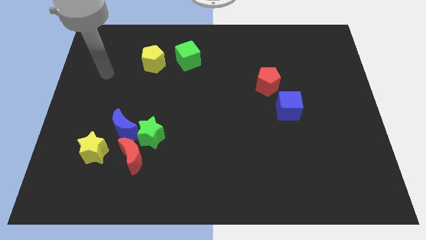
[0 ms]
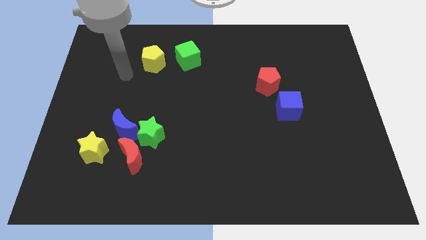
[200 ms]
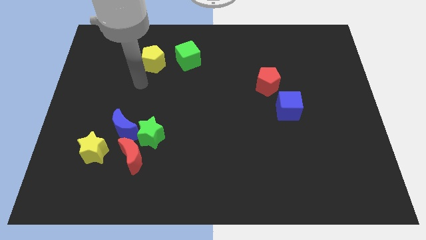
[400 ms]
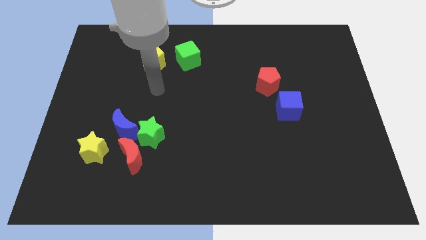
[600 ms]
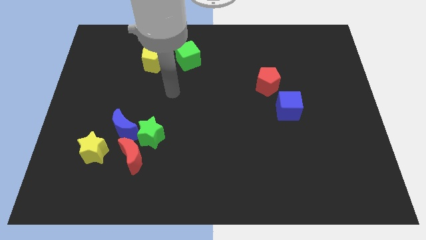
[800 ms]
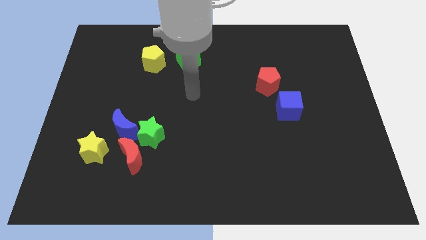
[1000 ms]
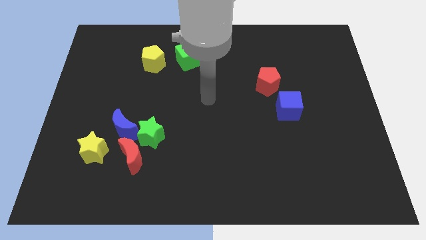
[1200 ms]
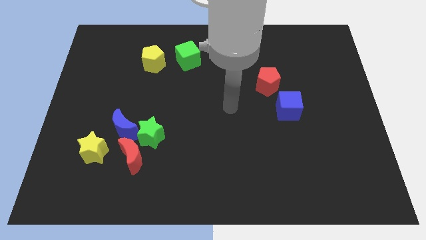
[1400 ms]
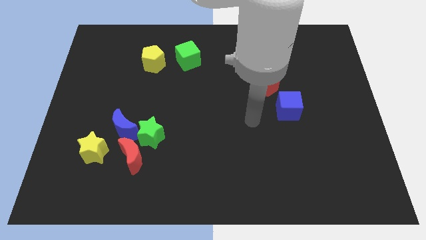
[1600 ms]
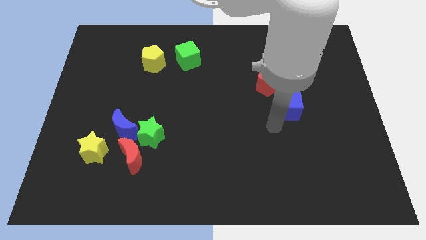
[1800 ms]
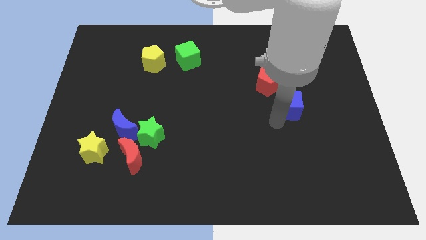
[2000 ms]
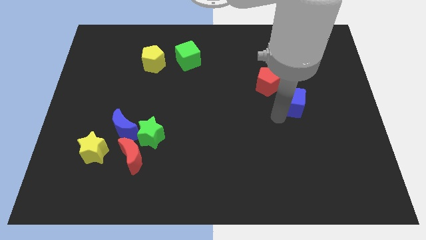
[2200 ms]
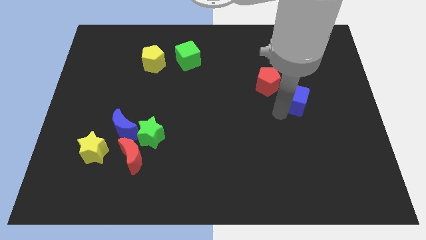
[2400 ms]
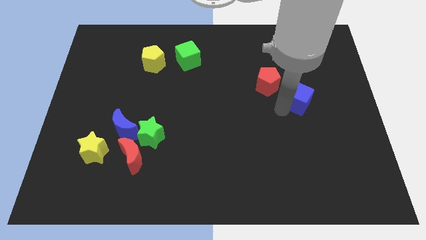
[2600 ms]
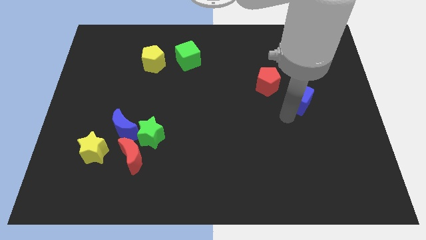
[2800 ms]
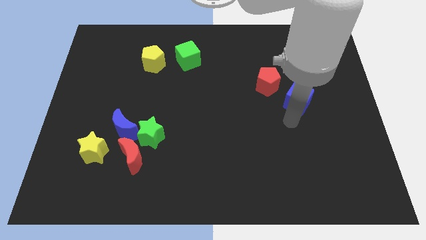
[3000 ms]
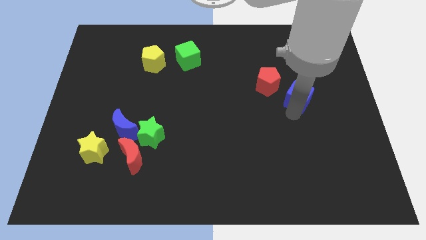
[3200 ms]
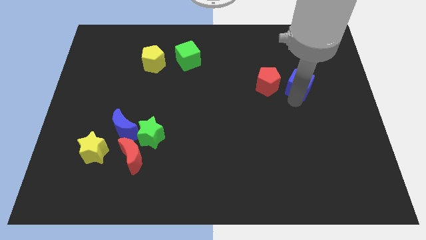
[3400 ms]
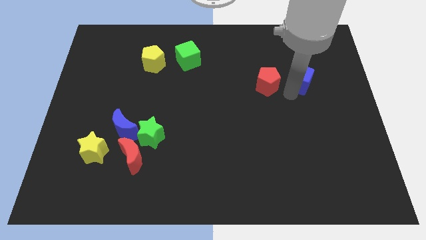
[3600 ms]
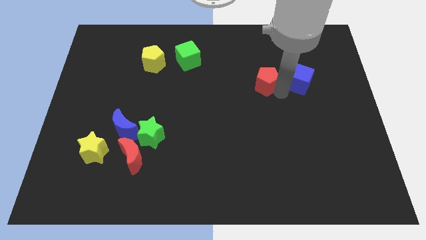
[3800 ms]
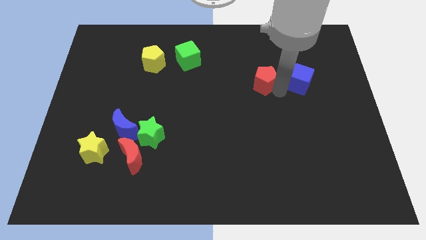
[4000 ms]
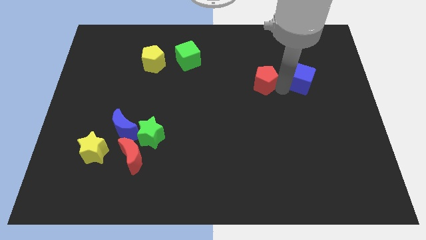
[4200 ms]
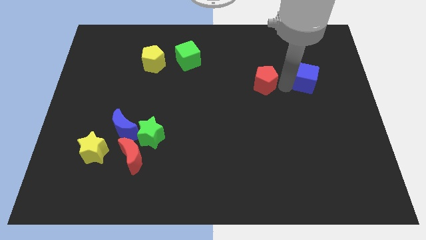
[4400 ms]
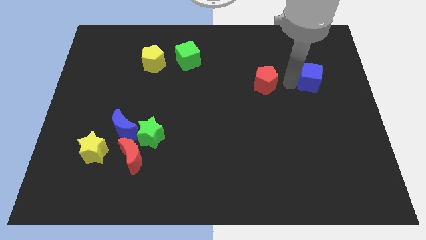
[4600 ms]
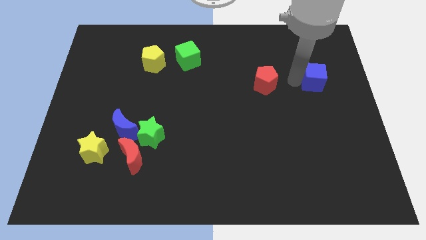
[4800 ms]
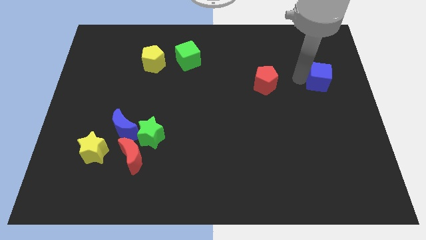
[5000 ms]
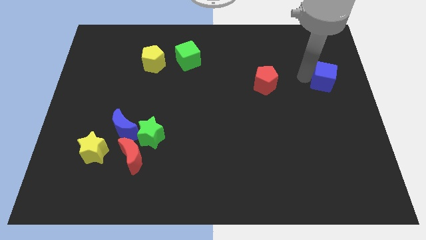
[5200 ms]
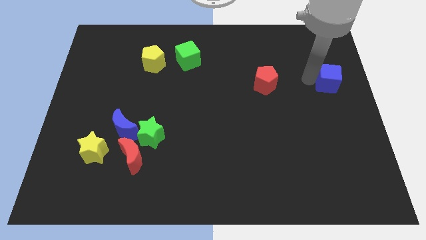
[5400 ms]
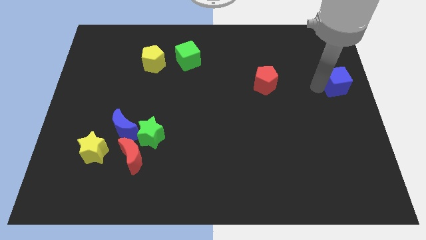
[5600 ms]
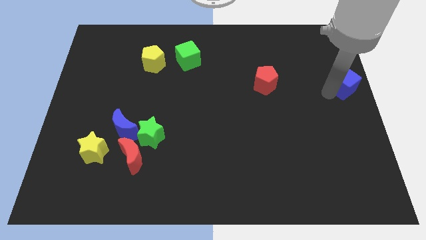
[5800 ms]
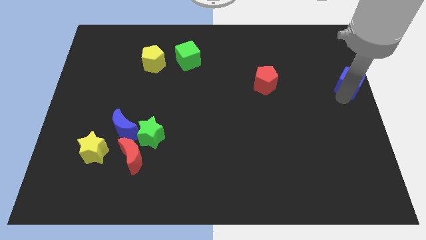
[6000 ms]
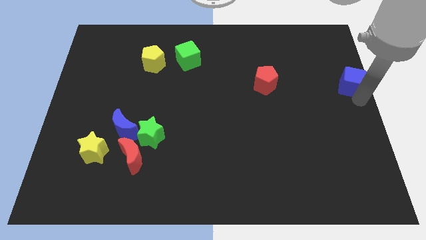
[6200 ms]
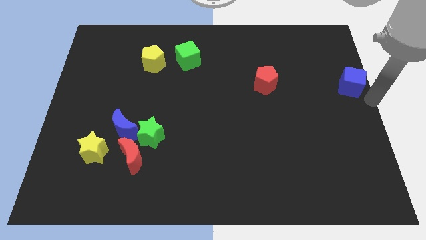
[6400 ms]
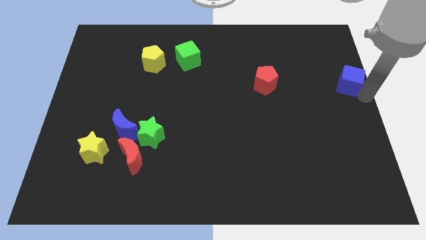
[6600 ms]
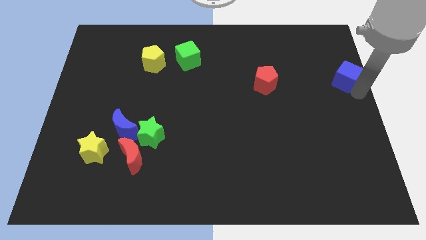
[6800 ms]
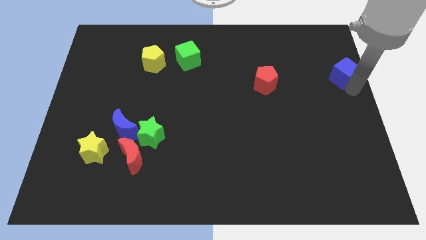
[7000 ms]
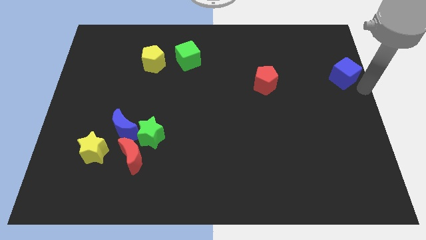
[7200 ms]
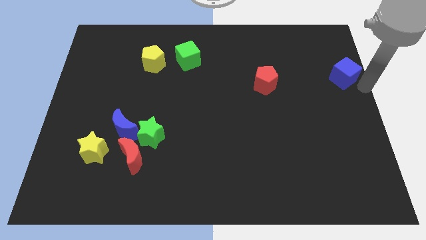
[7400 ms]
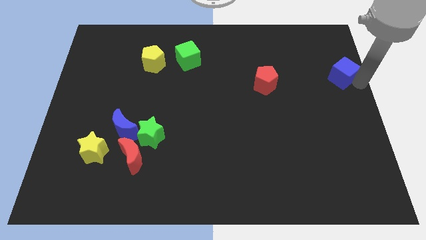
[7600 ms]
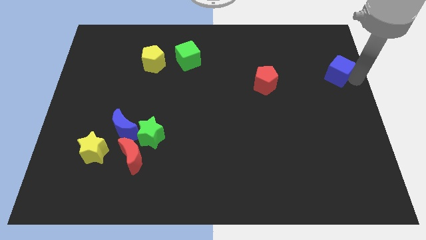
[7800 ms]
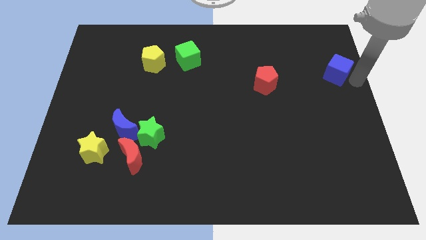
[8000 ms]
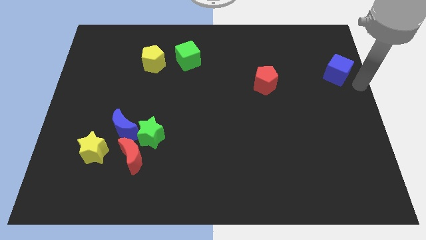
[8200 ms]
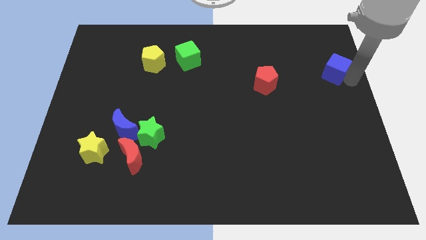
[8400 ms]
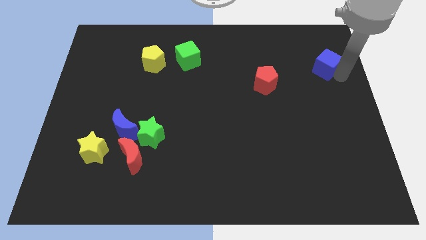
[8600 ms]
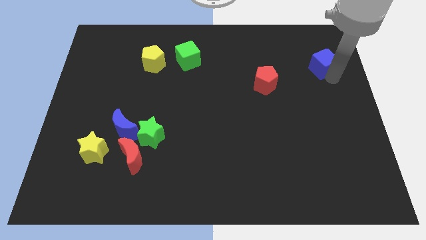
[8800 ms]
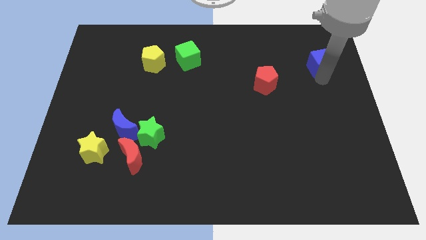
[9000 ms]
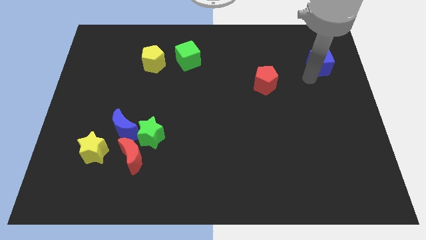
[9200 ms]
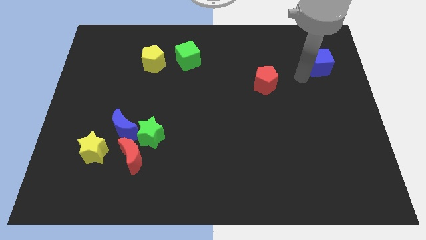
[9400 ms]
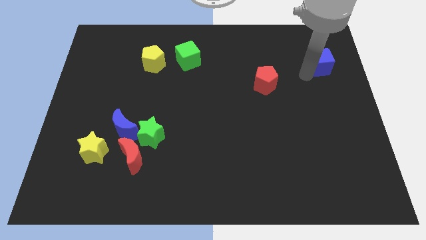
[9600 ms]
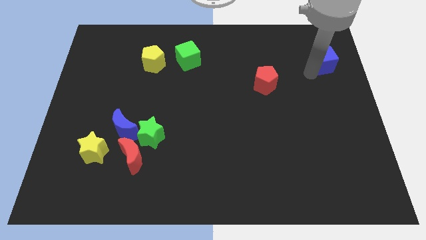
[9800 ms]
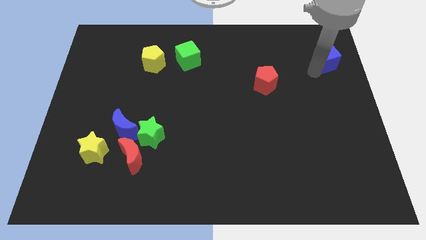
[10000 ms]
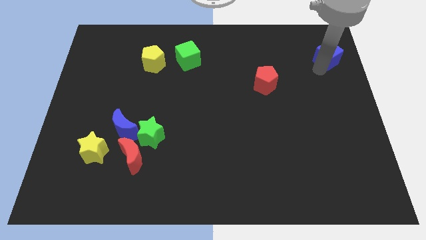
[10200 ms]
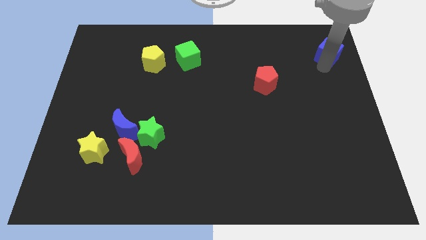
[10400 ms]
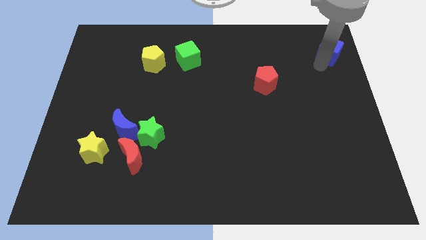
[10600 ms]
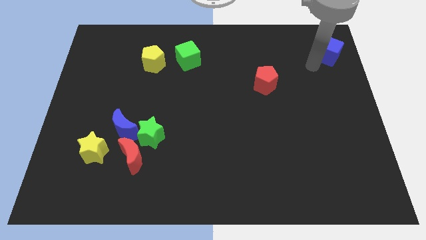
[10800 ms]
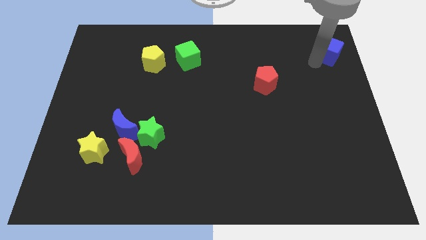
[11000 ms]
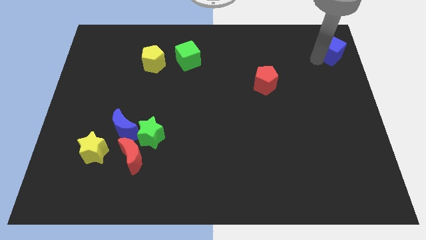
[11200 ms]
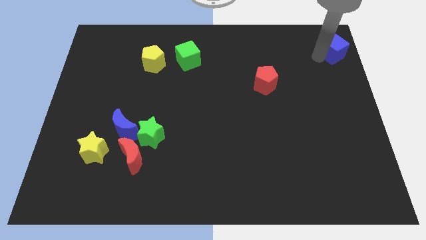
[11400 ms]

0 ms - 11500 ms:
push the blue cube to the top right of the board

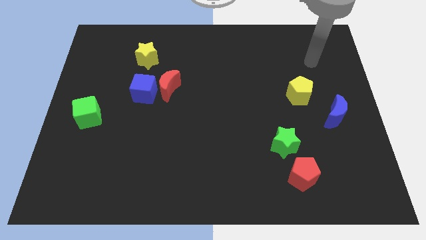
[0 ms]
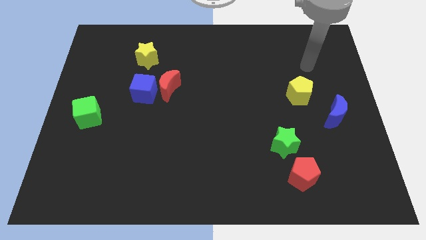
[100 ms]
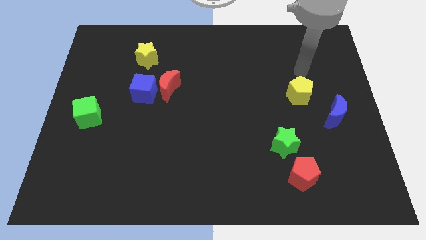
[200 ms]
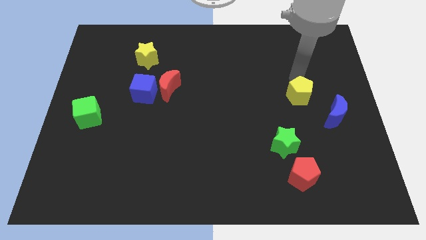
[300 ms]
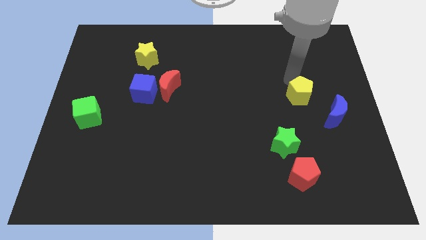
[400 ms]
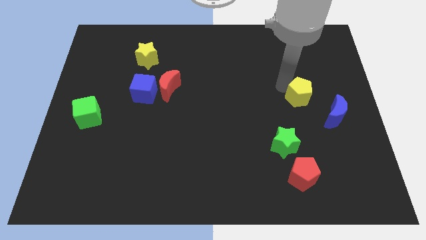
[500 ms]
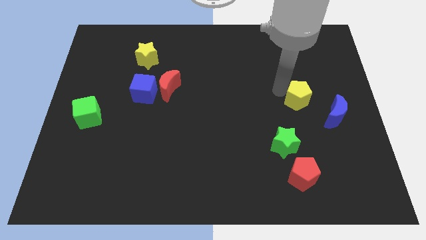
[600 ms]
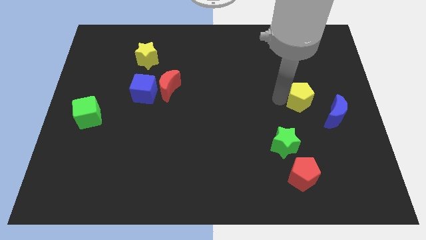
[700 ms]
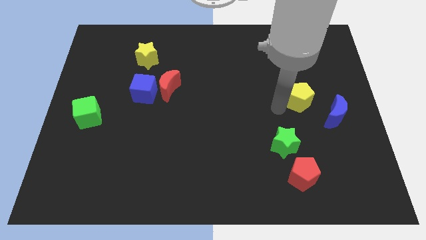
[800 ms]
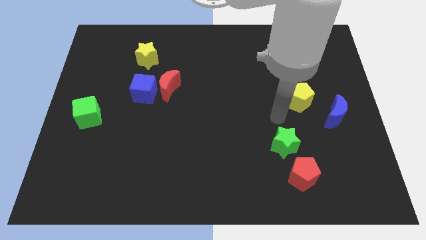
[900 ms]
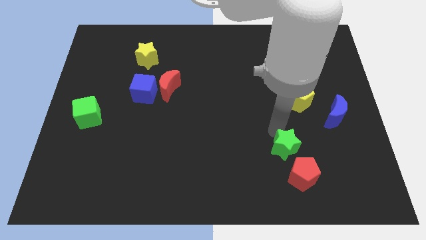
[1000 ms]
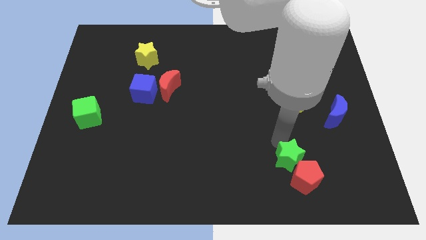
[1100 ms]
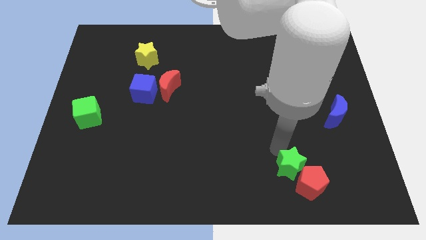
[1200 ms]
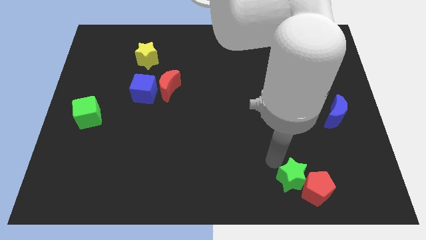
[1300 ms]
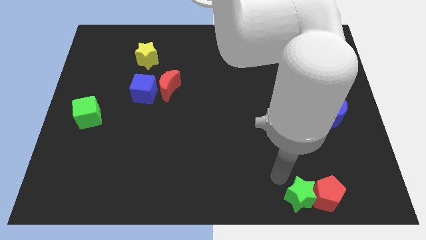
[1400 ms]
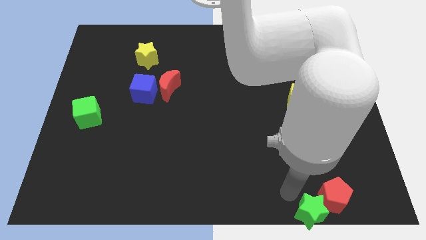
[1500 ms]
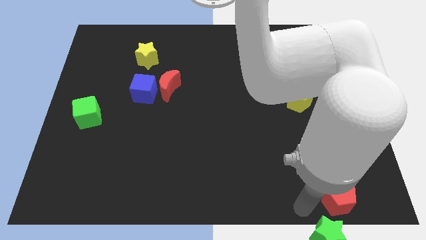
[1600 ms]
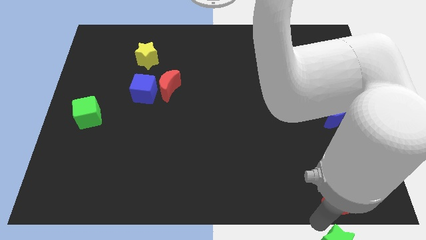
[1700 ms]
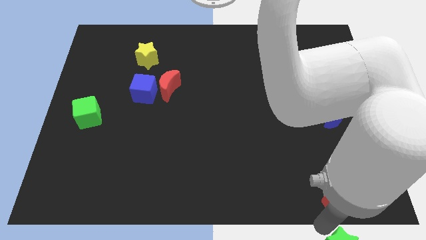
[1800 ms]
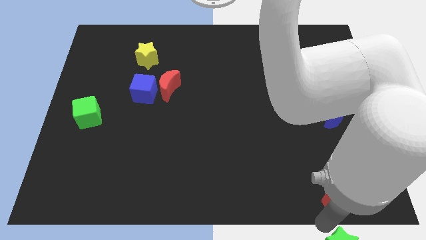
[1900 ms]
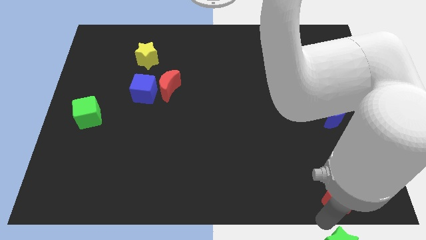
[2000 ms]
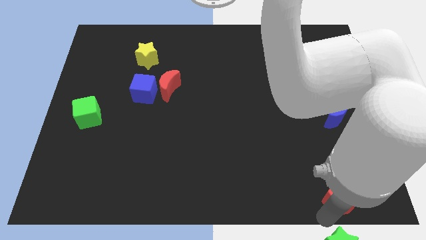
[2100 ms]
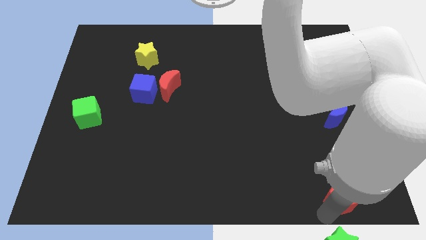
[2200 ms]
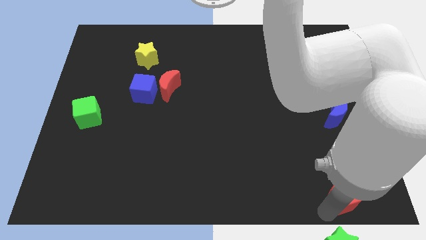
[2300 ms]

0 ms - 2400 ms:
push the red pentagon to the lower right corner
